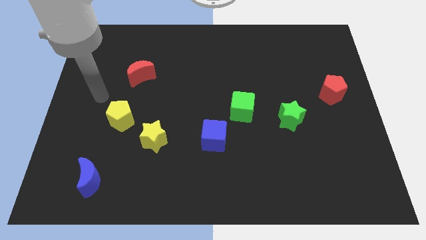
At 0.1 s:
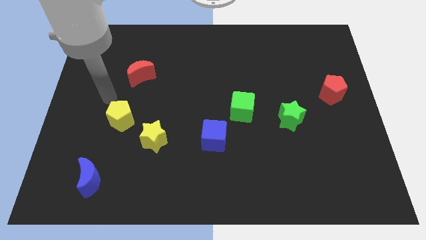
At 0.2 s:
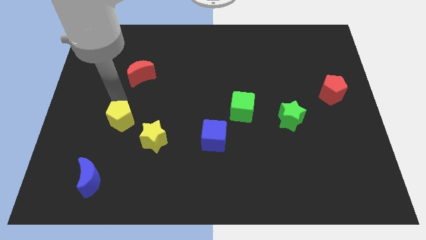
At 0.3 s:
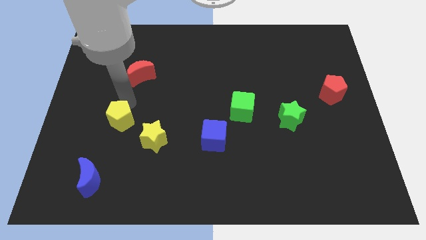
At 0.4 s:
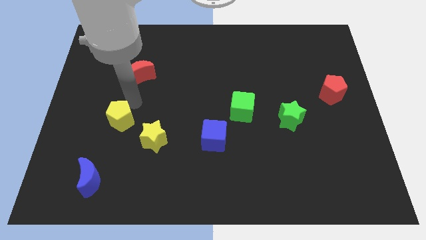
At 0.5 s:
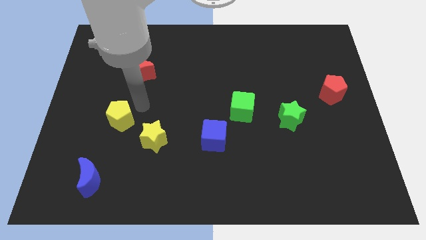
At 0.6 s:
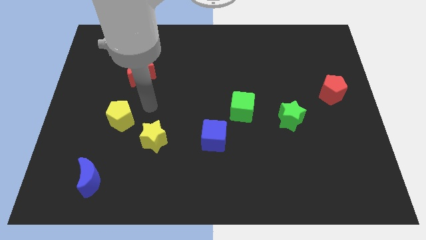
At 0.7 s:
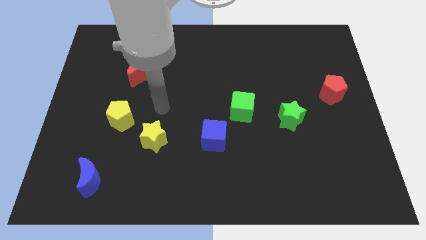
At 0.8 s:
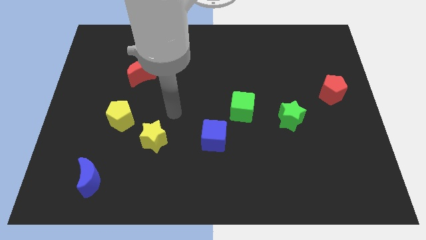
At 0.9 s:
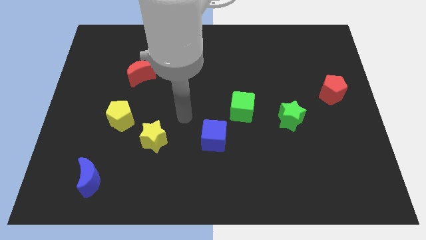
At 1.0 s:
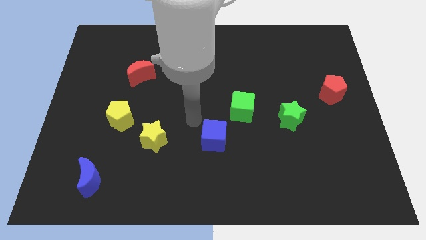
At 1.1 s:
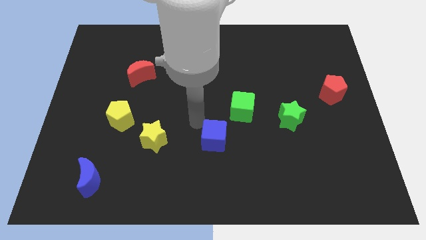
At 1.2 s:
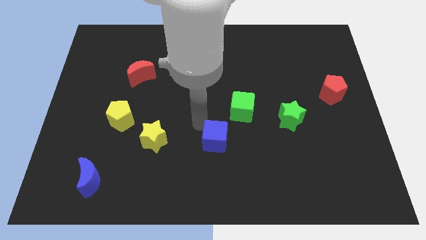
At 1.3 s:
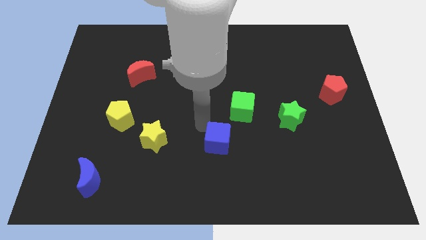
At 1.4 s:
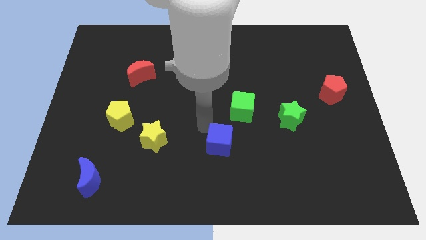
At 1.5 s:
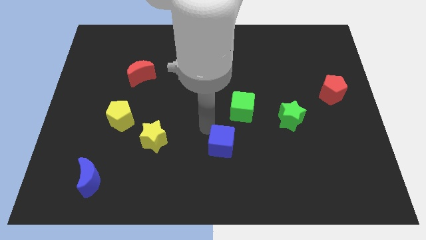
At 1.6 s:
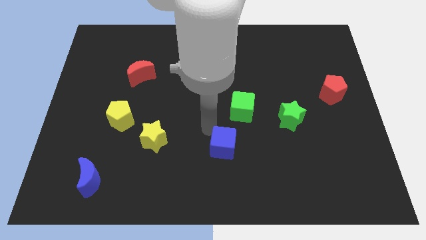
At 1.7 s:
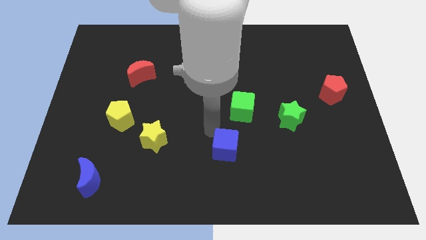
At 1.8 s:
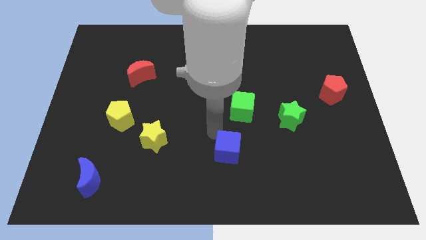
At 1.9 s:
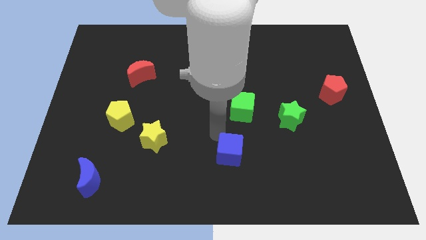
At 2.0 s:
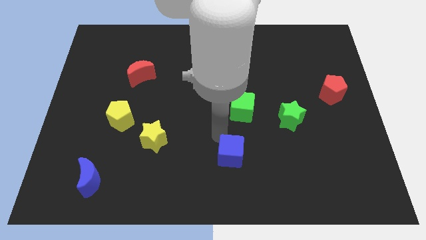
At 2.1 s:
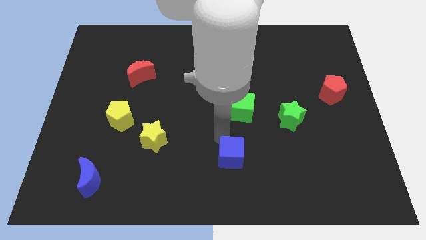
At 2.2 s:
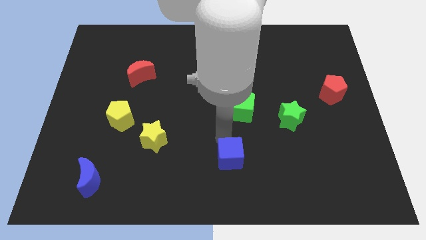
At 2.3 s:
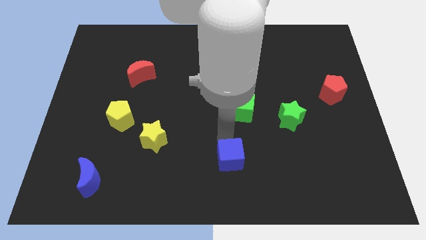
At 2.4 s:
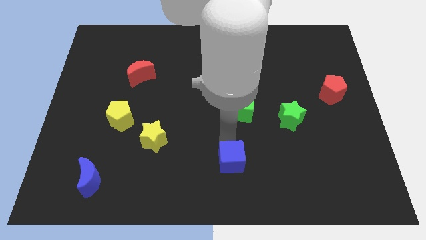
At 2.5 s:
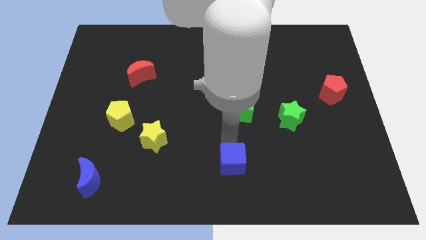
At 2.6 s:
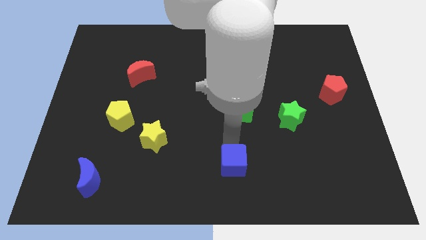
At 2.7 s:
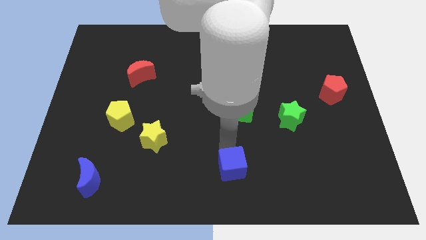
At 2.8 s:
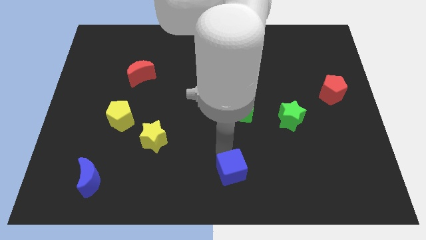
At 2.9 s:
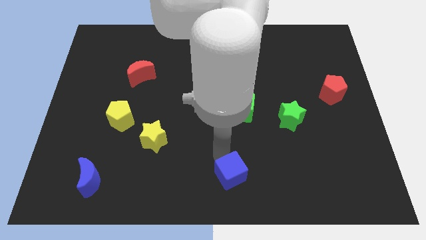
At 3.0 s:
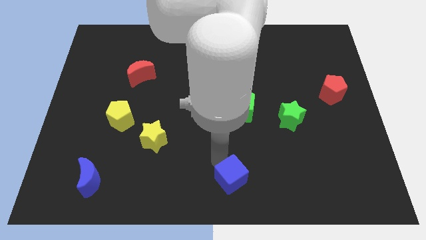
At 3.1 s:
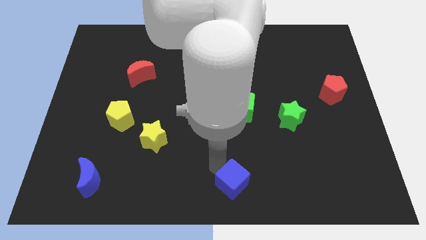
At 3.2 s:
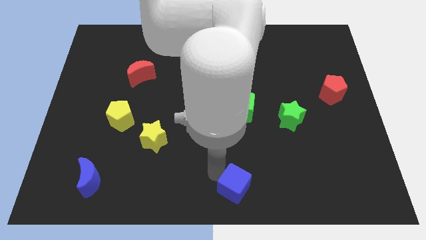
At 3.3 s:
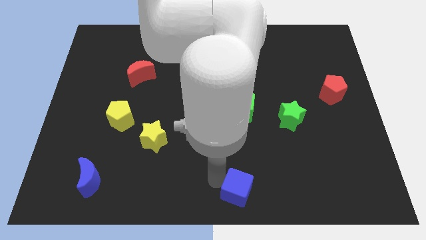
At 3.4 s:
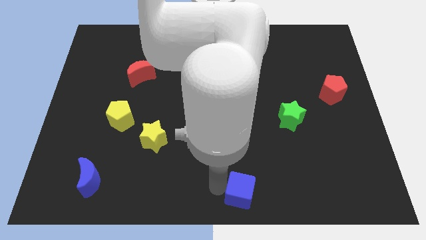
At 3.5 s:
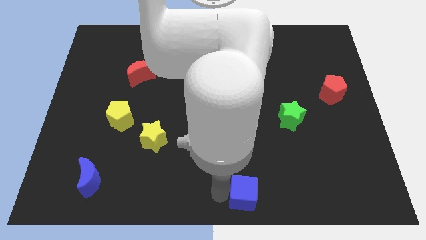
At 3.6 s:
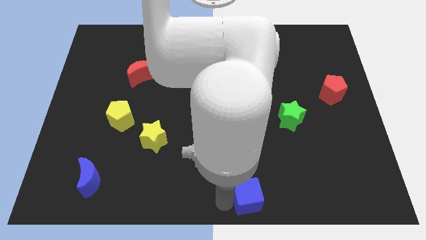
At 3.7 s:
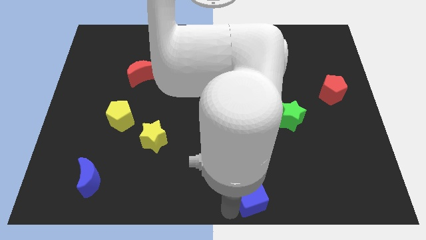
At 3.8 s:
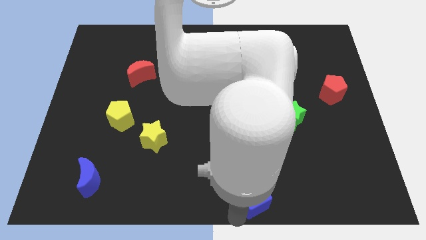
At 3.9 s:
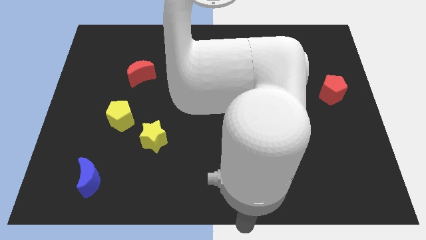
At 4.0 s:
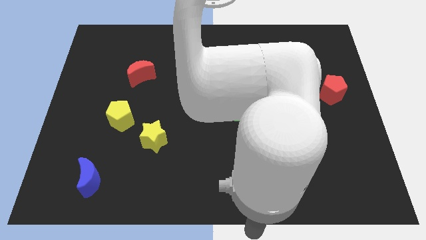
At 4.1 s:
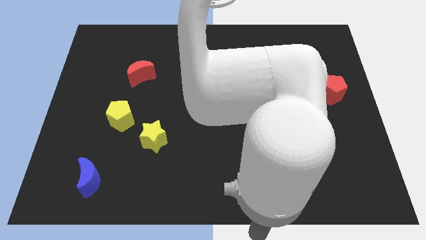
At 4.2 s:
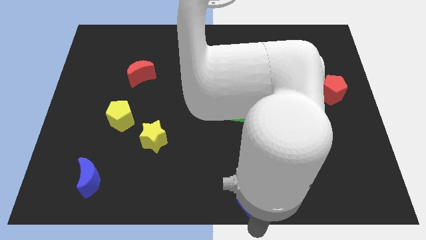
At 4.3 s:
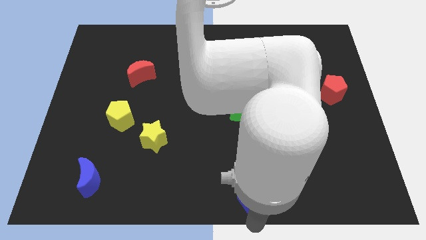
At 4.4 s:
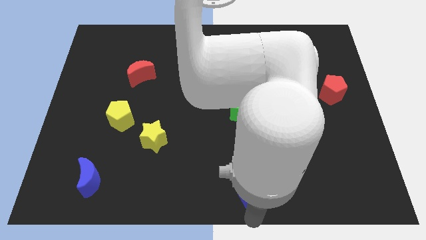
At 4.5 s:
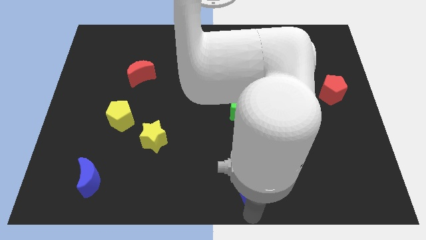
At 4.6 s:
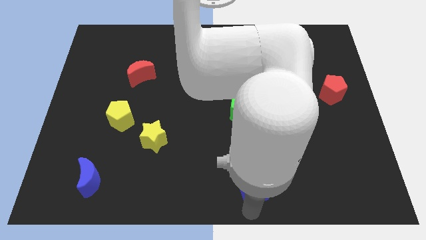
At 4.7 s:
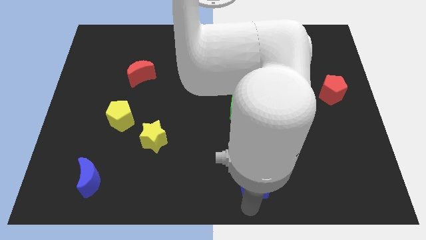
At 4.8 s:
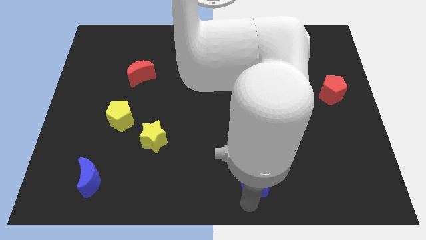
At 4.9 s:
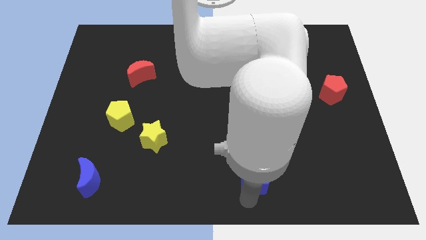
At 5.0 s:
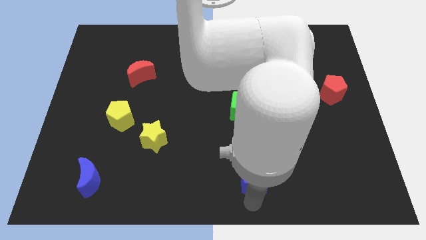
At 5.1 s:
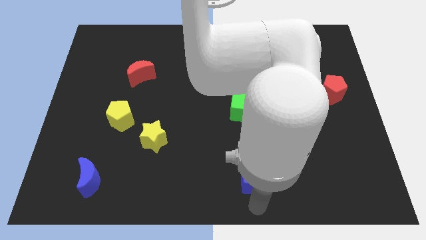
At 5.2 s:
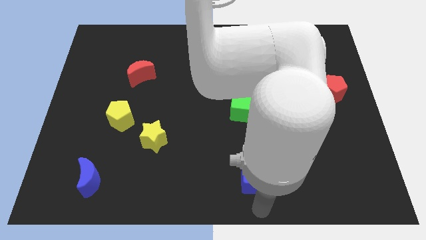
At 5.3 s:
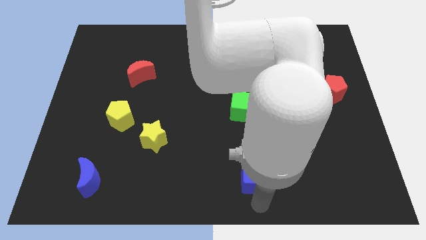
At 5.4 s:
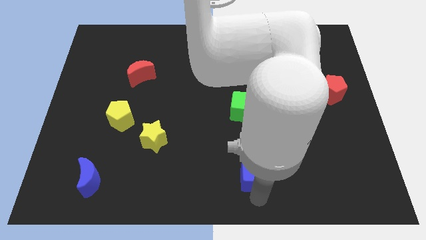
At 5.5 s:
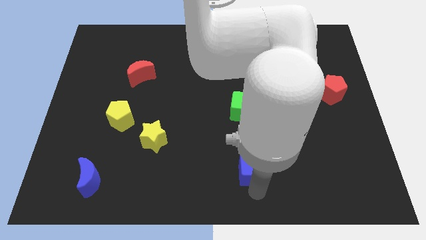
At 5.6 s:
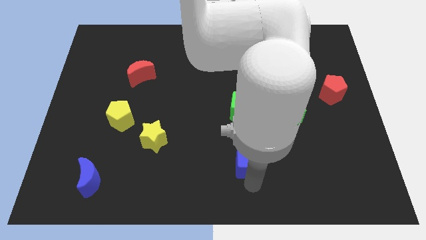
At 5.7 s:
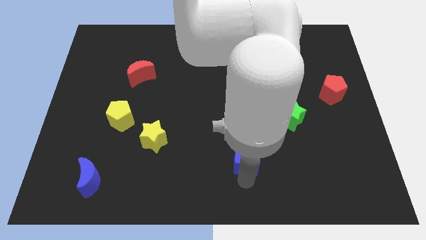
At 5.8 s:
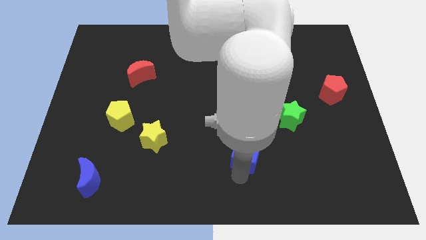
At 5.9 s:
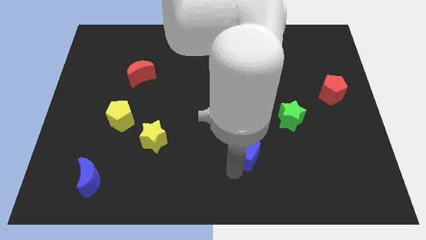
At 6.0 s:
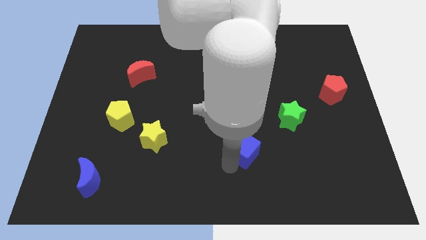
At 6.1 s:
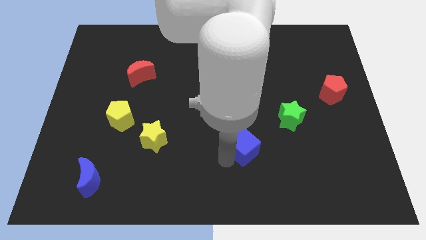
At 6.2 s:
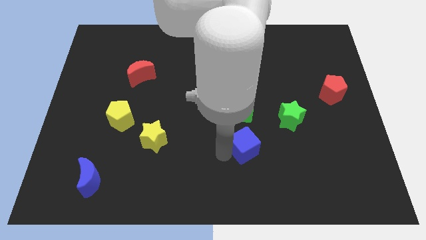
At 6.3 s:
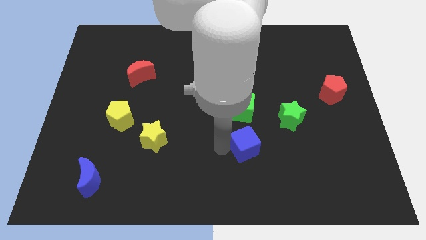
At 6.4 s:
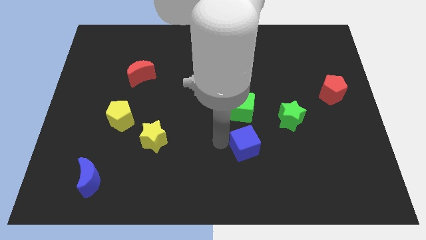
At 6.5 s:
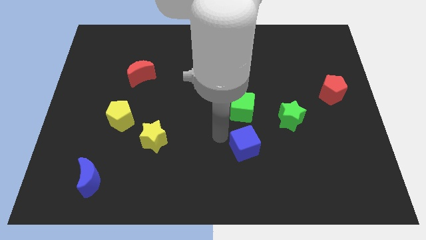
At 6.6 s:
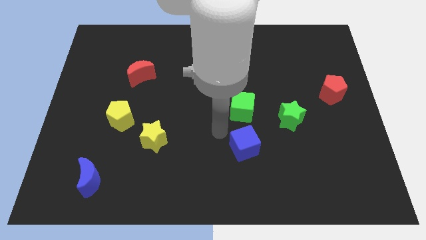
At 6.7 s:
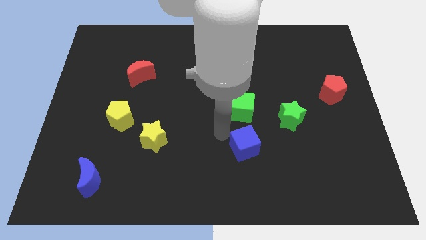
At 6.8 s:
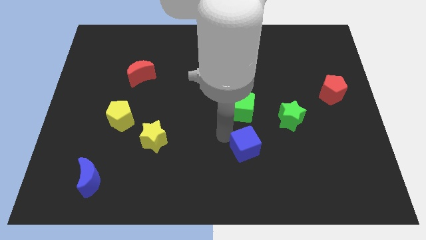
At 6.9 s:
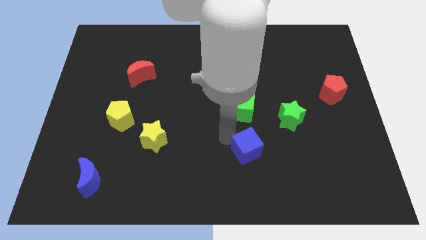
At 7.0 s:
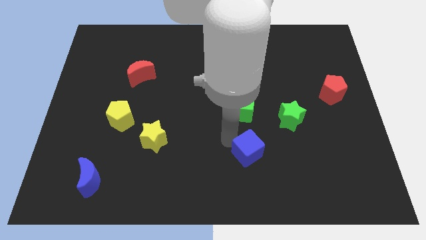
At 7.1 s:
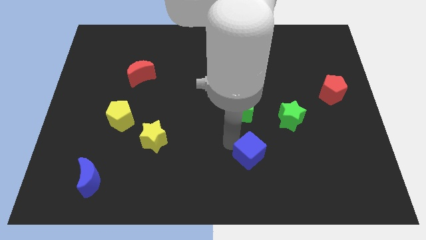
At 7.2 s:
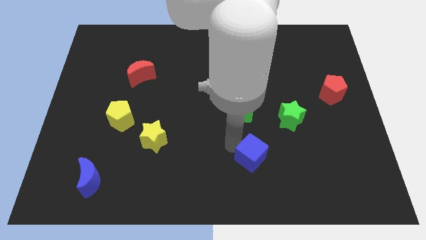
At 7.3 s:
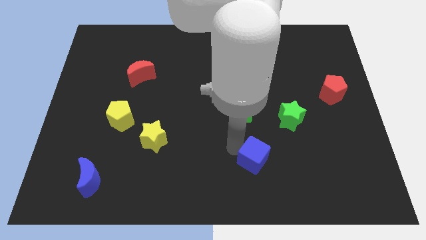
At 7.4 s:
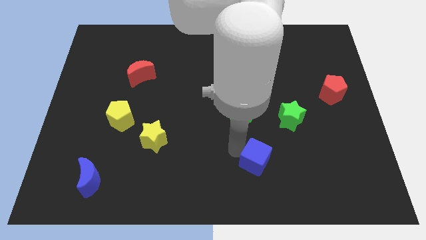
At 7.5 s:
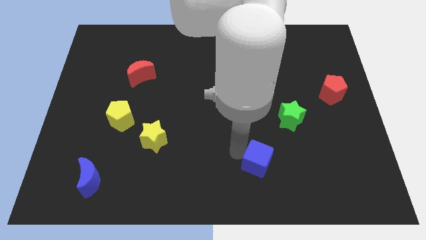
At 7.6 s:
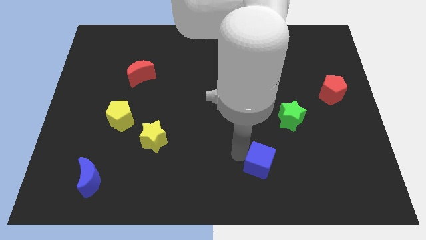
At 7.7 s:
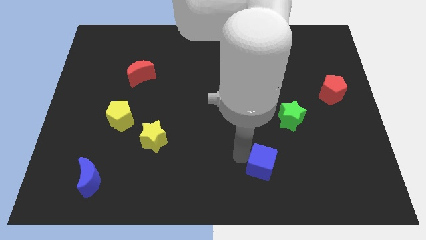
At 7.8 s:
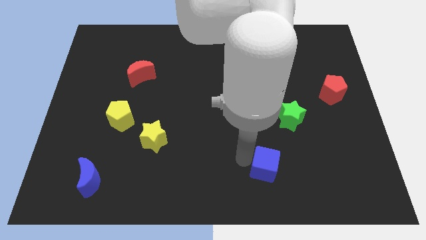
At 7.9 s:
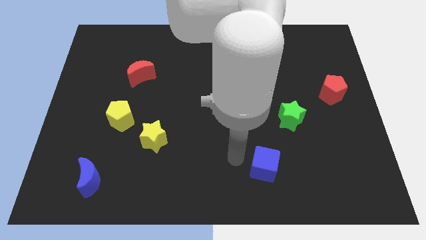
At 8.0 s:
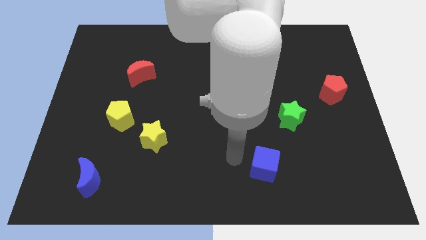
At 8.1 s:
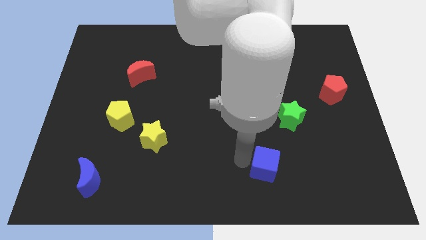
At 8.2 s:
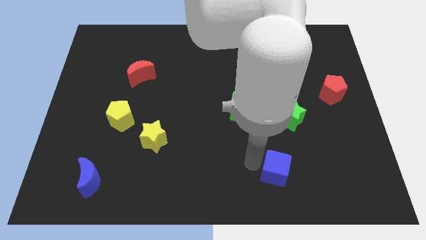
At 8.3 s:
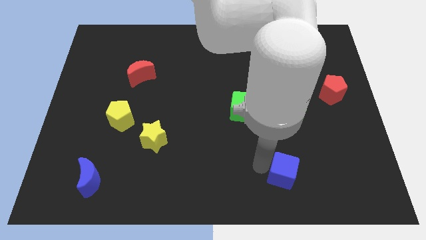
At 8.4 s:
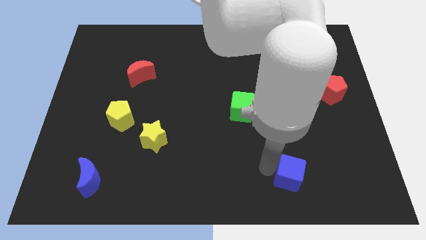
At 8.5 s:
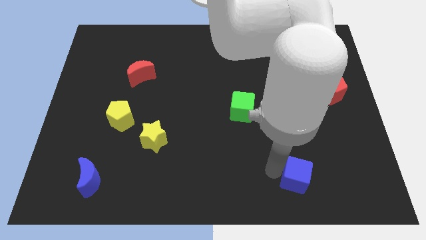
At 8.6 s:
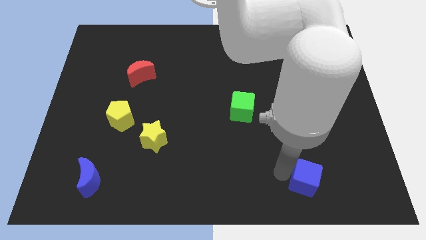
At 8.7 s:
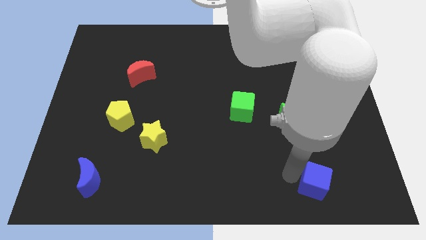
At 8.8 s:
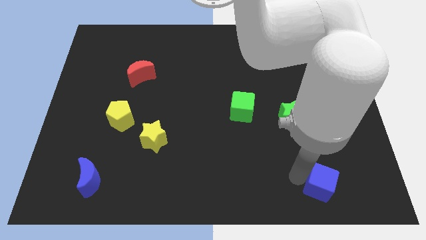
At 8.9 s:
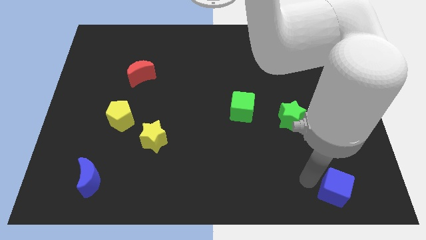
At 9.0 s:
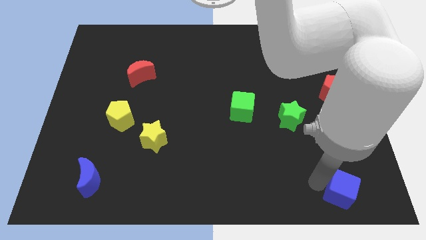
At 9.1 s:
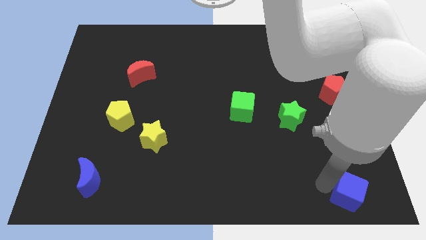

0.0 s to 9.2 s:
slide the blue cube to the bottom right
